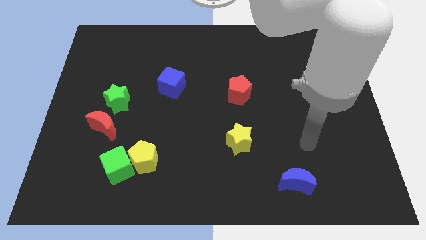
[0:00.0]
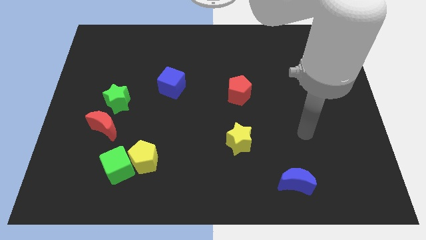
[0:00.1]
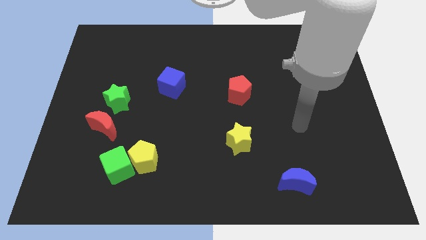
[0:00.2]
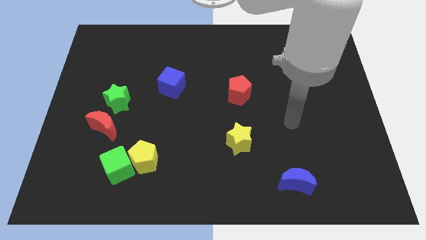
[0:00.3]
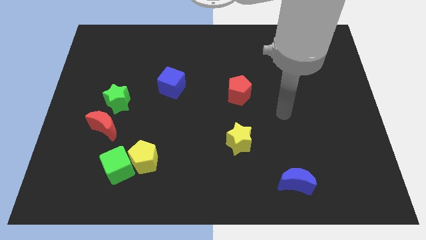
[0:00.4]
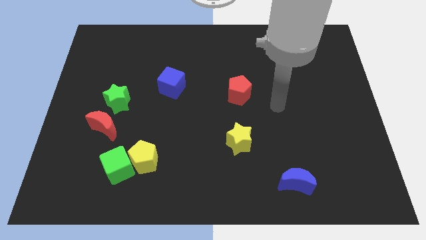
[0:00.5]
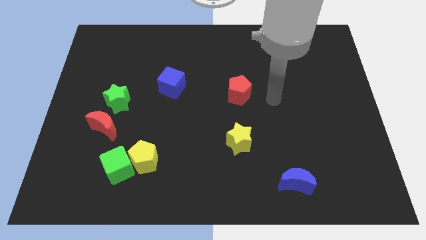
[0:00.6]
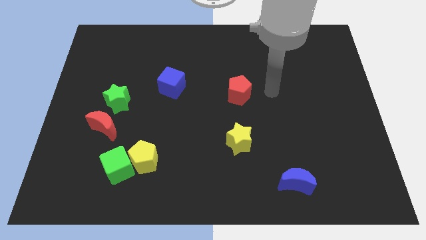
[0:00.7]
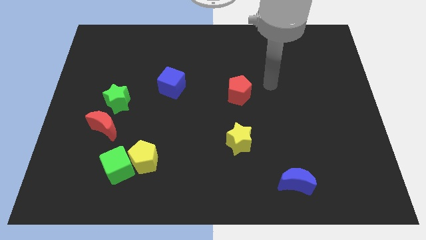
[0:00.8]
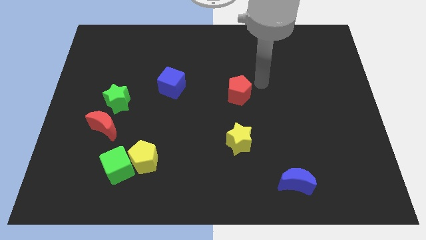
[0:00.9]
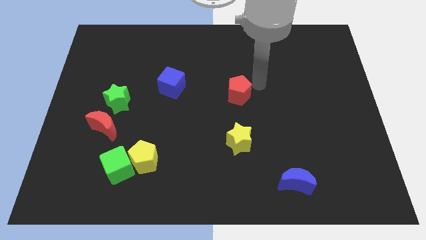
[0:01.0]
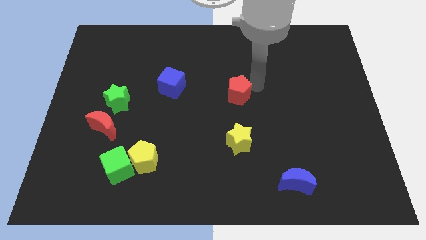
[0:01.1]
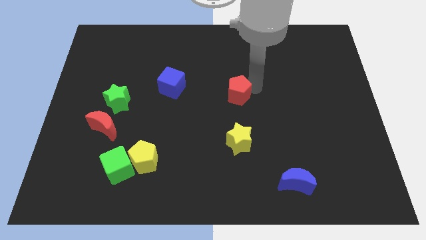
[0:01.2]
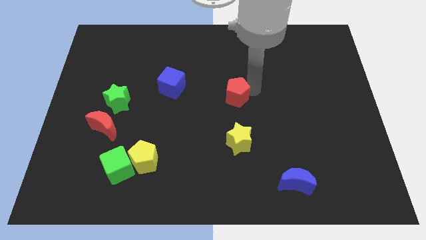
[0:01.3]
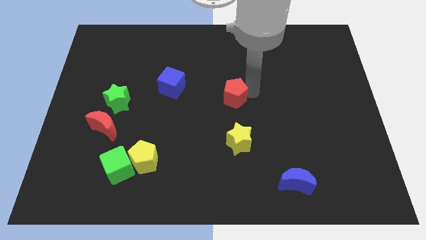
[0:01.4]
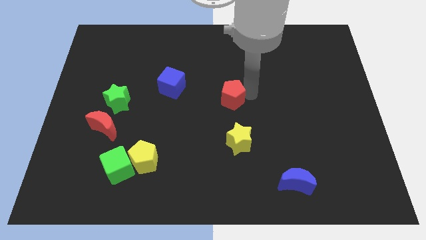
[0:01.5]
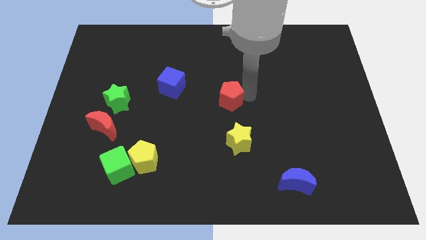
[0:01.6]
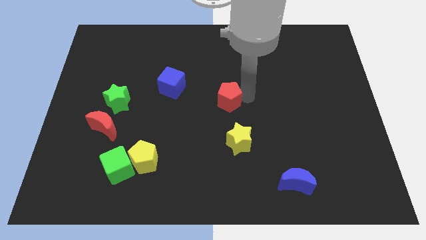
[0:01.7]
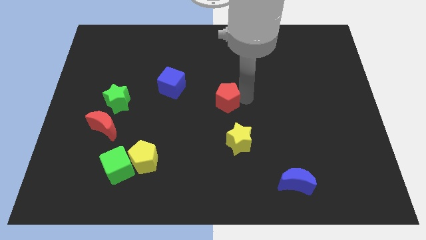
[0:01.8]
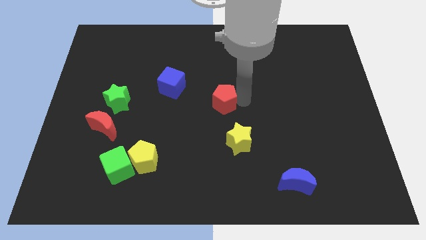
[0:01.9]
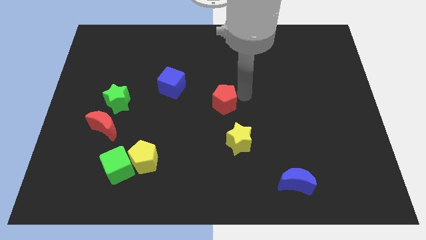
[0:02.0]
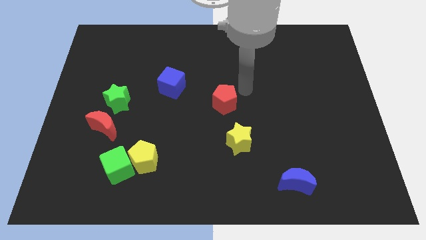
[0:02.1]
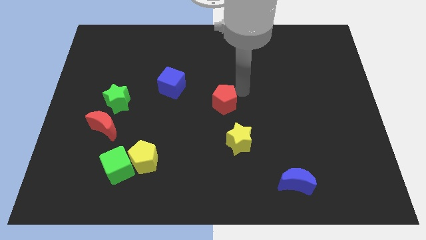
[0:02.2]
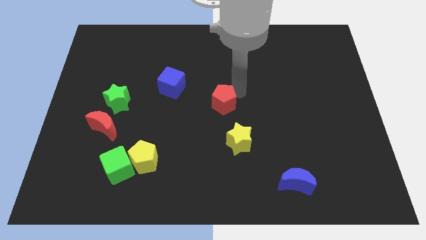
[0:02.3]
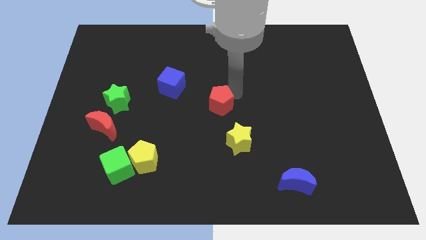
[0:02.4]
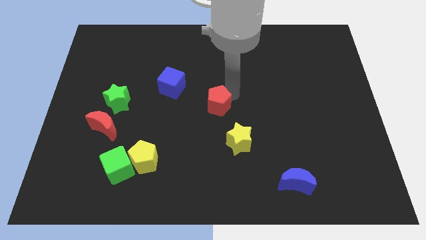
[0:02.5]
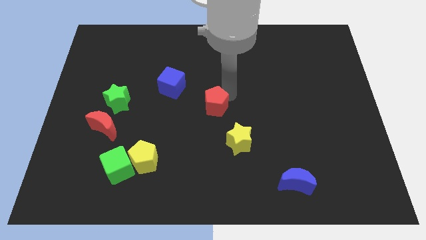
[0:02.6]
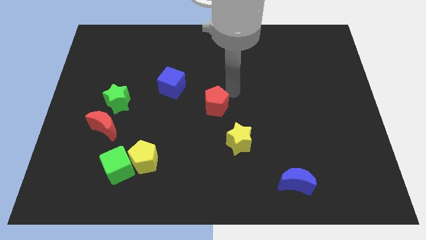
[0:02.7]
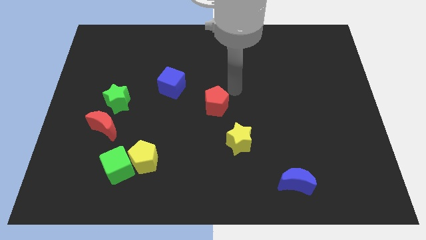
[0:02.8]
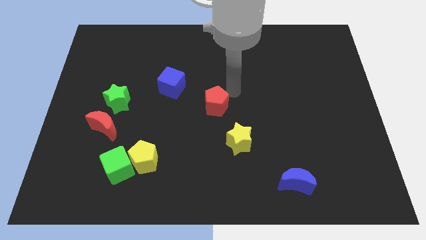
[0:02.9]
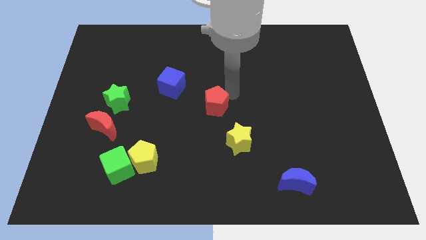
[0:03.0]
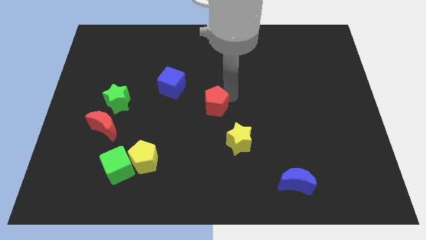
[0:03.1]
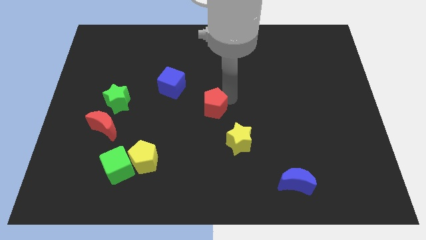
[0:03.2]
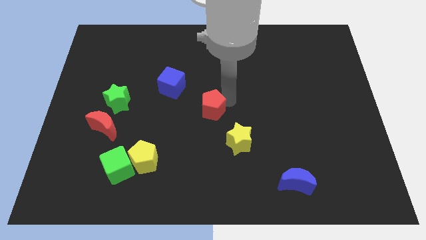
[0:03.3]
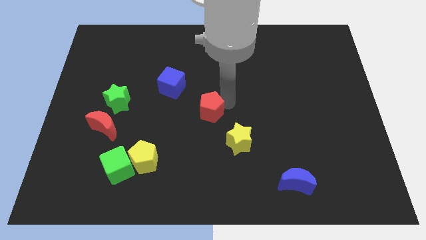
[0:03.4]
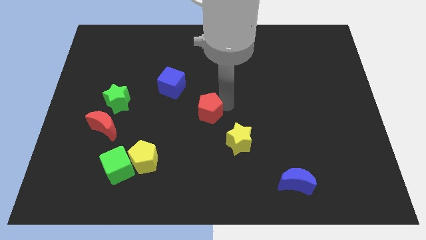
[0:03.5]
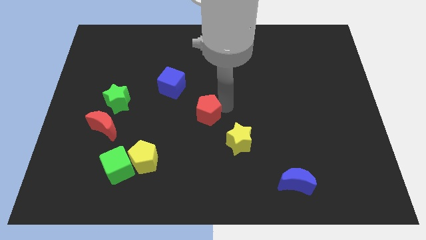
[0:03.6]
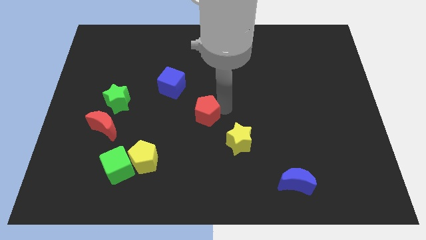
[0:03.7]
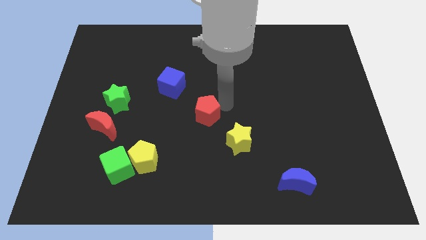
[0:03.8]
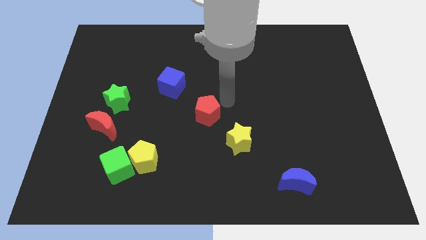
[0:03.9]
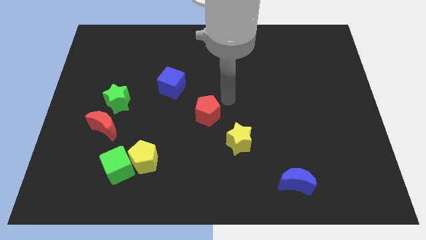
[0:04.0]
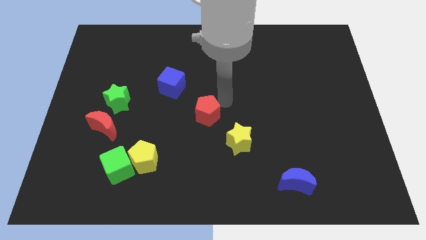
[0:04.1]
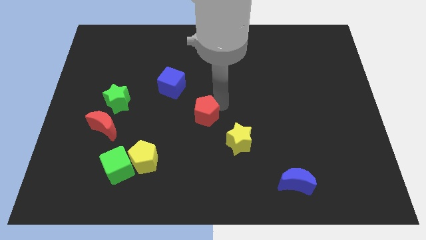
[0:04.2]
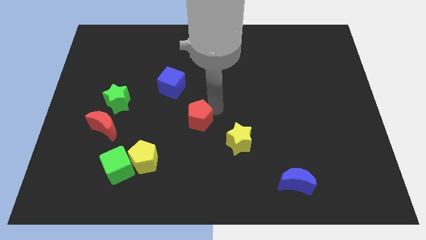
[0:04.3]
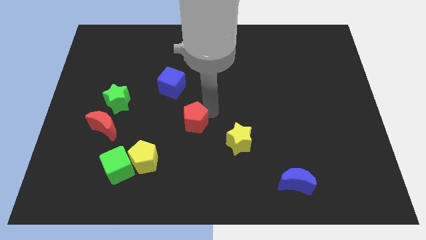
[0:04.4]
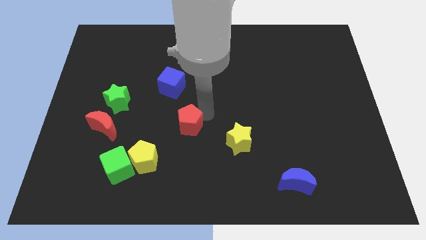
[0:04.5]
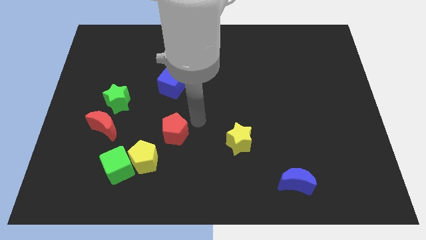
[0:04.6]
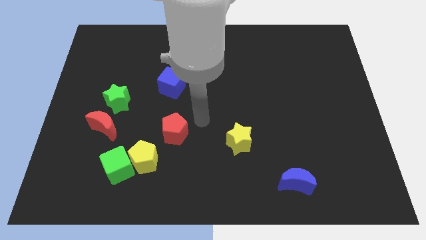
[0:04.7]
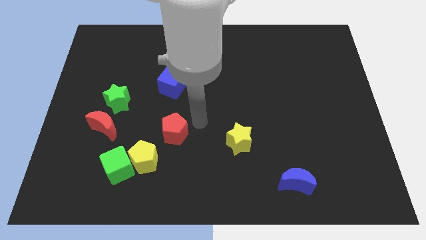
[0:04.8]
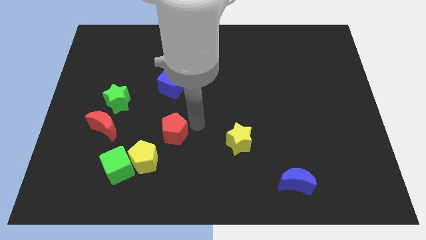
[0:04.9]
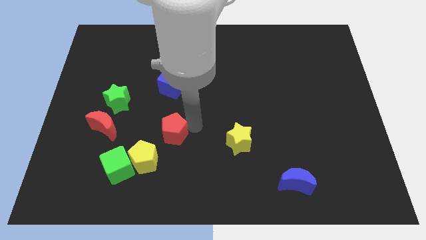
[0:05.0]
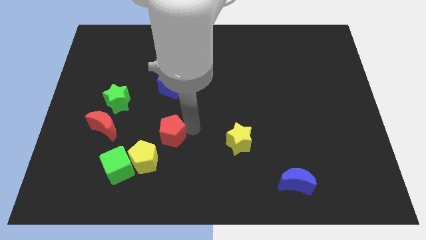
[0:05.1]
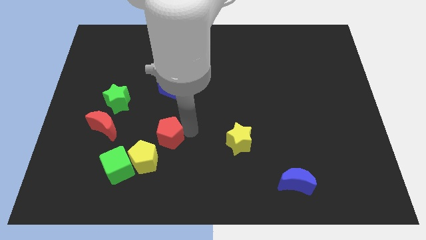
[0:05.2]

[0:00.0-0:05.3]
move the red pentagon to the top right of the green cube

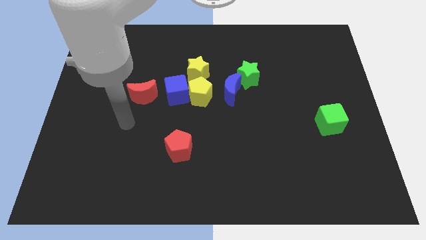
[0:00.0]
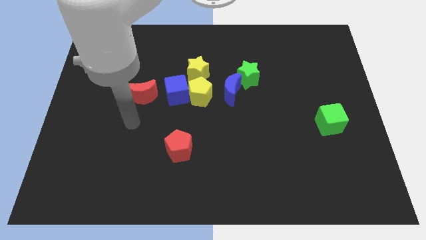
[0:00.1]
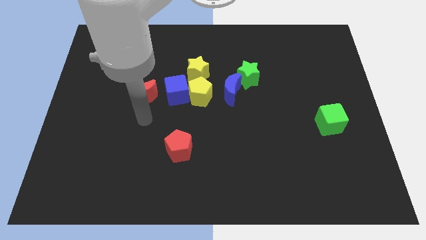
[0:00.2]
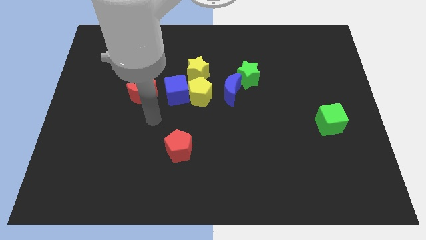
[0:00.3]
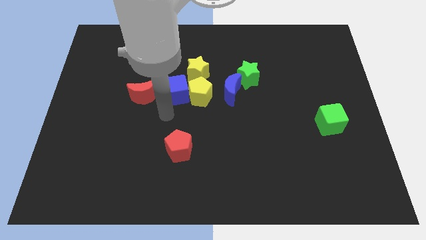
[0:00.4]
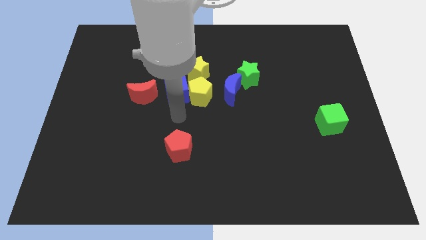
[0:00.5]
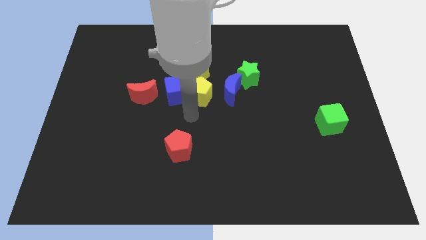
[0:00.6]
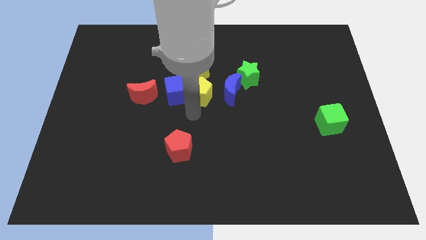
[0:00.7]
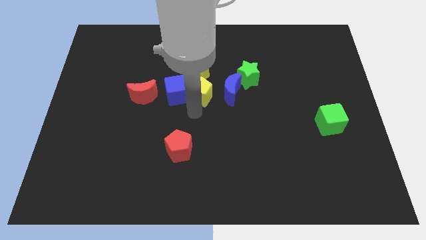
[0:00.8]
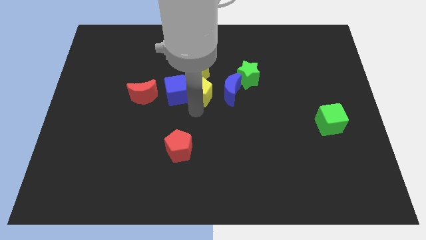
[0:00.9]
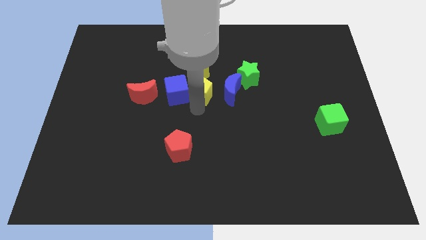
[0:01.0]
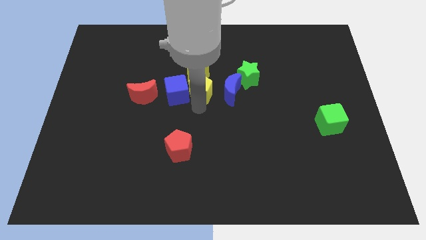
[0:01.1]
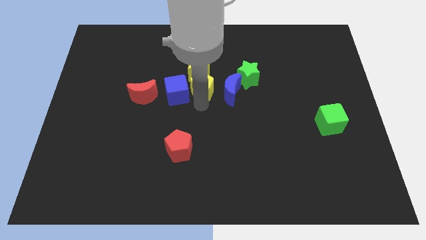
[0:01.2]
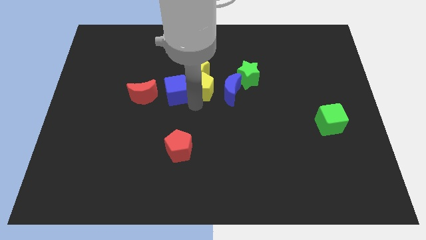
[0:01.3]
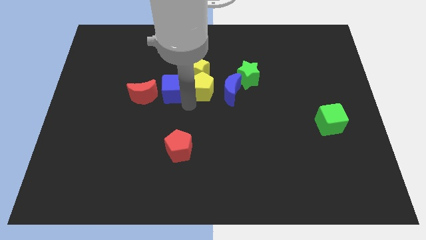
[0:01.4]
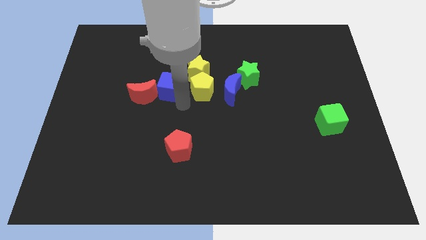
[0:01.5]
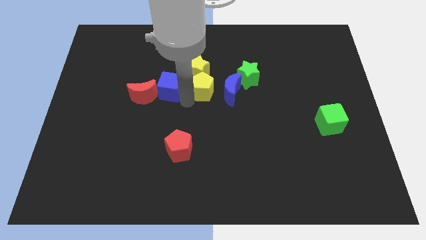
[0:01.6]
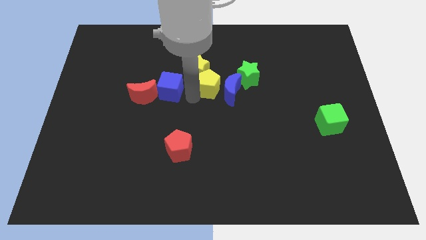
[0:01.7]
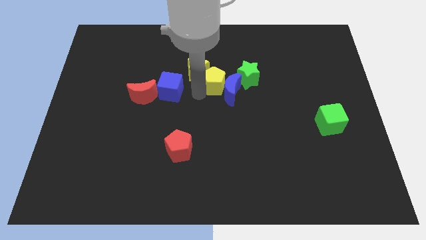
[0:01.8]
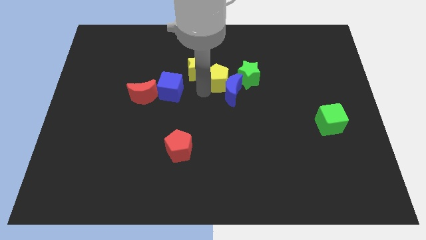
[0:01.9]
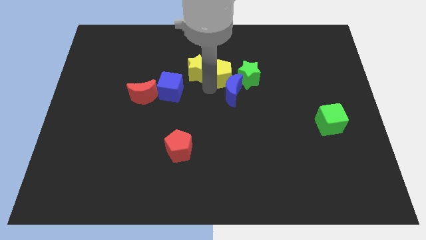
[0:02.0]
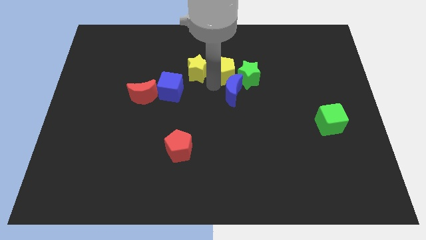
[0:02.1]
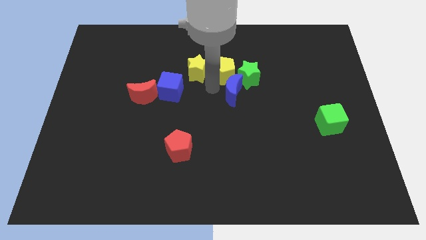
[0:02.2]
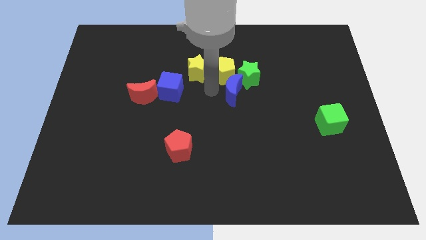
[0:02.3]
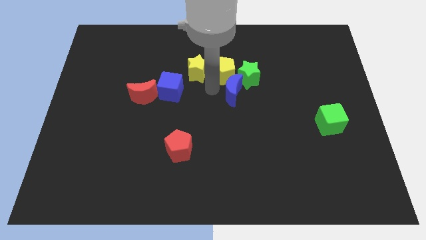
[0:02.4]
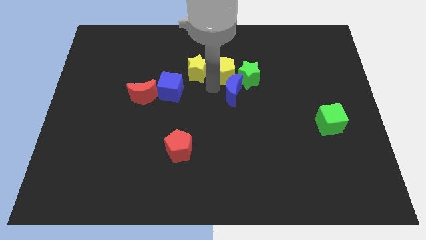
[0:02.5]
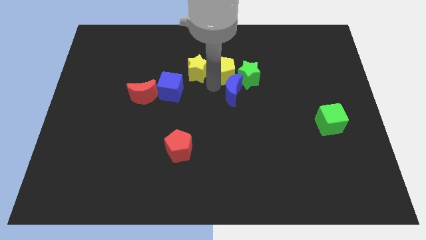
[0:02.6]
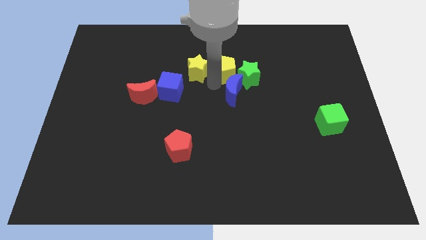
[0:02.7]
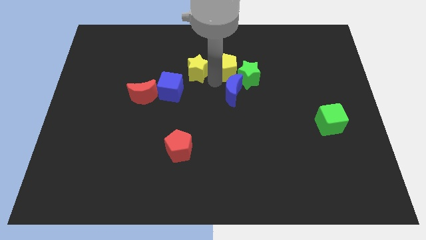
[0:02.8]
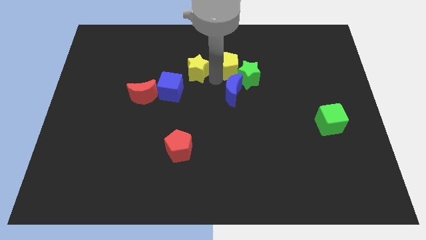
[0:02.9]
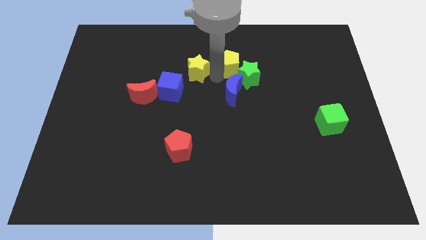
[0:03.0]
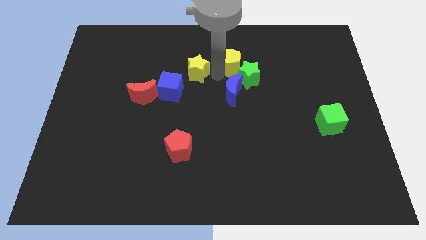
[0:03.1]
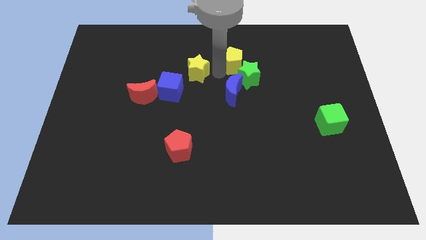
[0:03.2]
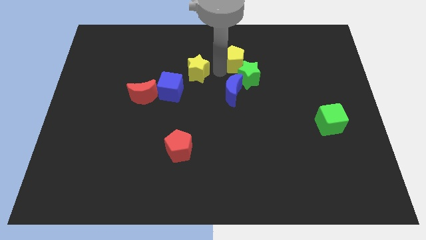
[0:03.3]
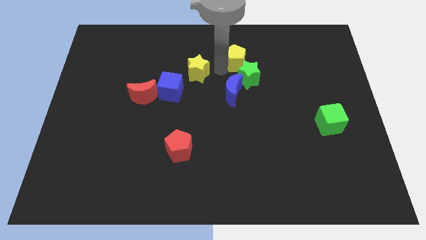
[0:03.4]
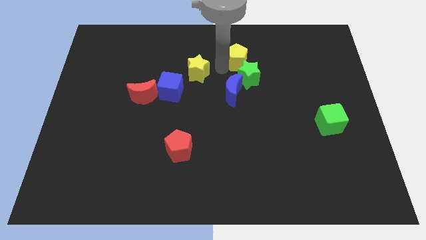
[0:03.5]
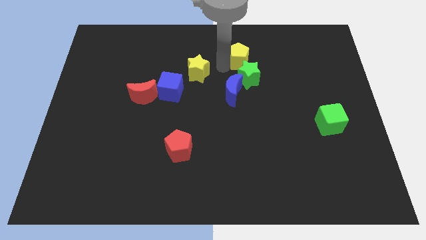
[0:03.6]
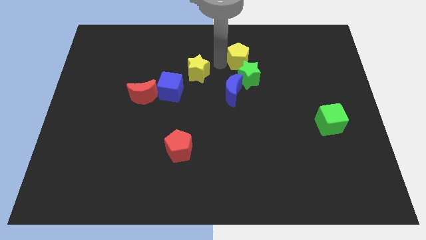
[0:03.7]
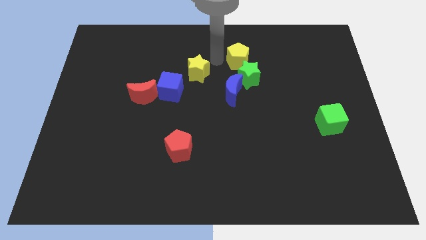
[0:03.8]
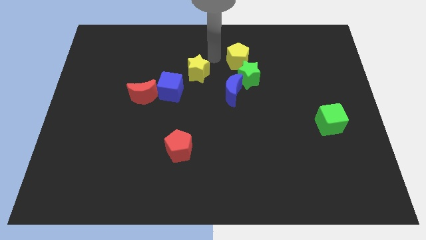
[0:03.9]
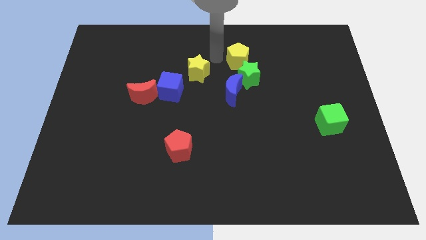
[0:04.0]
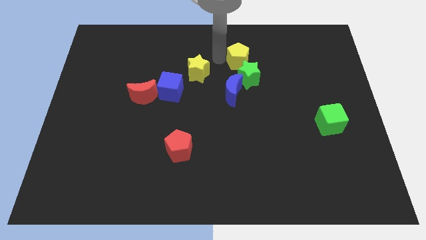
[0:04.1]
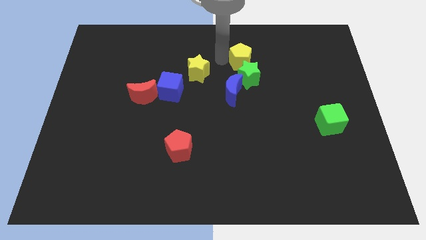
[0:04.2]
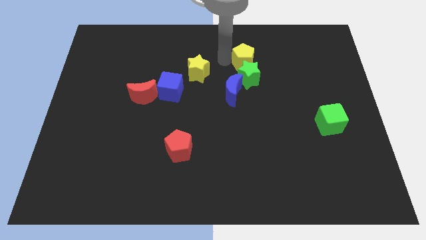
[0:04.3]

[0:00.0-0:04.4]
put the yellow pentagon to the top right side of the green star
